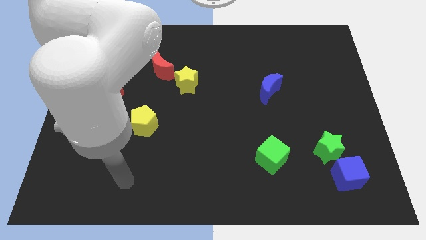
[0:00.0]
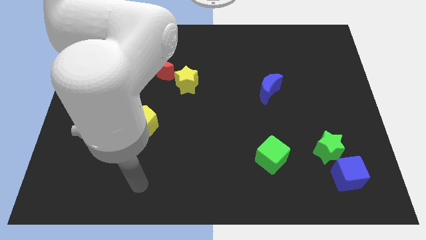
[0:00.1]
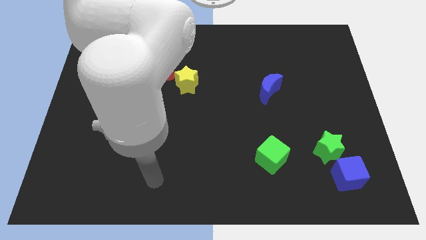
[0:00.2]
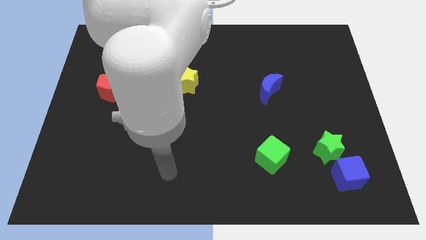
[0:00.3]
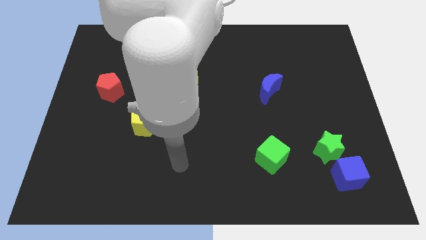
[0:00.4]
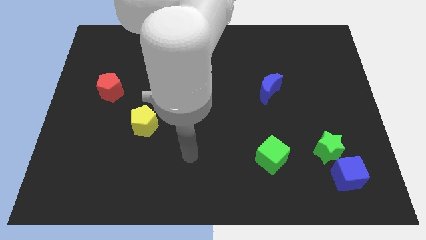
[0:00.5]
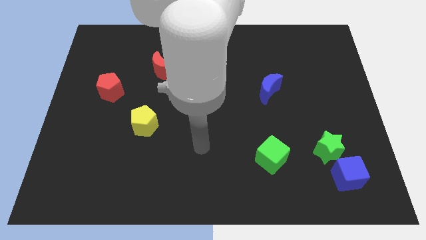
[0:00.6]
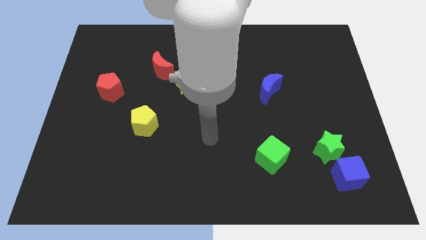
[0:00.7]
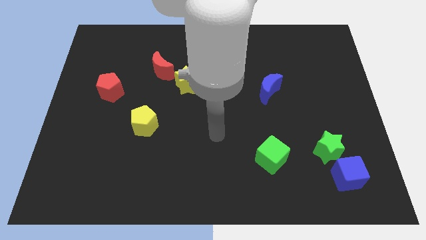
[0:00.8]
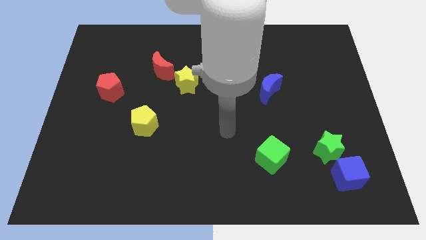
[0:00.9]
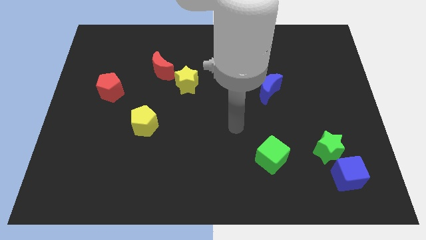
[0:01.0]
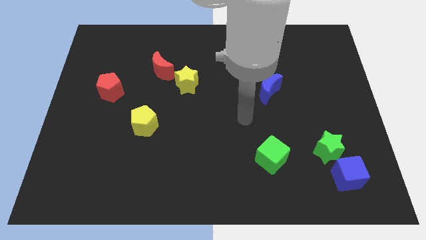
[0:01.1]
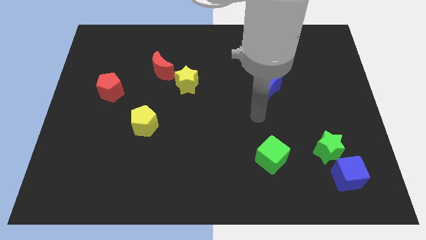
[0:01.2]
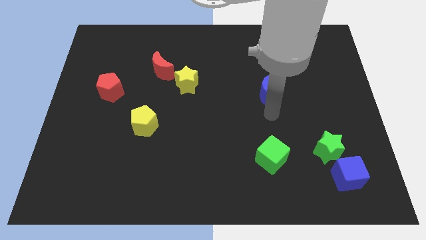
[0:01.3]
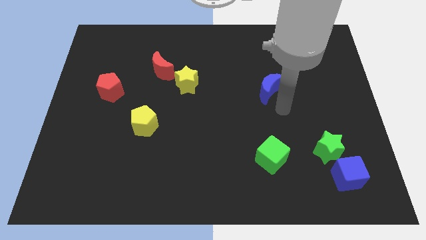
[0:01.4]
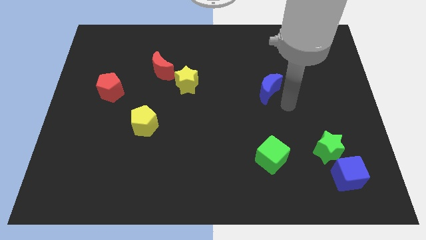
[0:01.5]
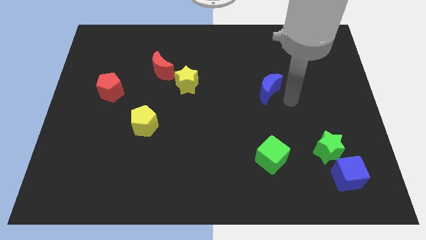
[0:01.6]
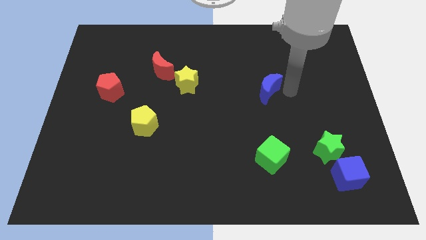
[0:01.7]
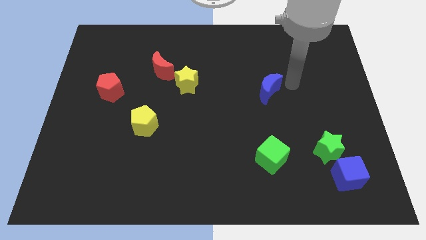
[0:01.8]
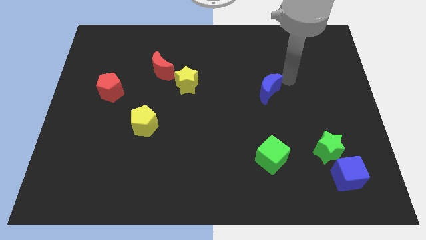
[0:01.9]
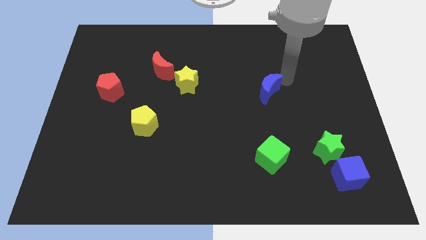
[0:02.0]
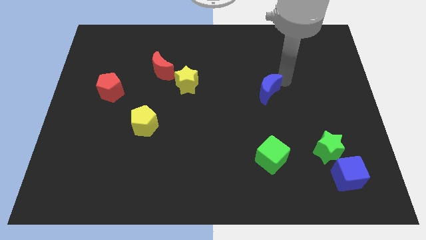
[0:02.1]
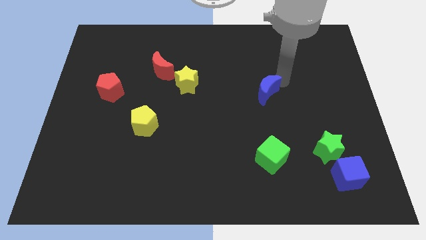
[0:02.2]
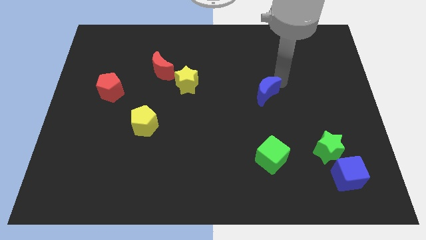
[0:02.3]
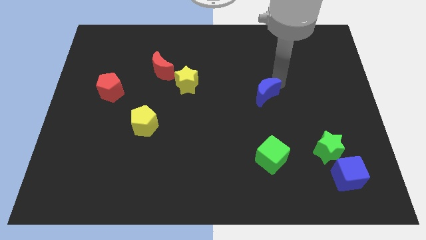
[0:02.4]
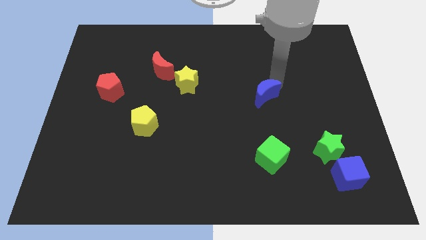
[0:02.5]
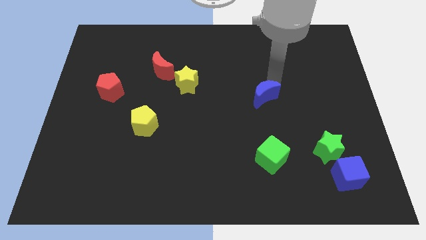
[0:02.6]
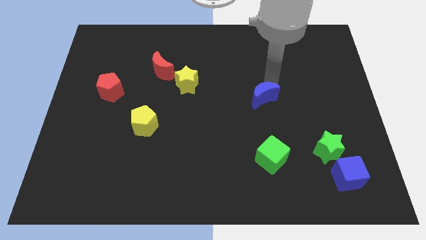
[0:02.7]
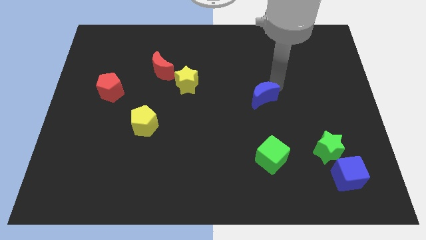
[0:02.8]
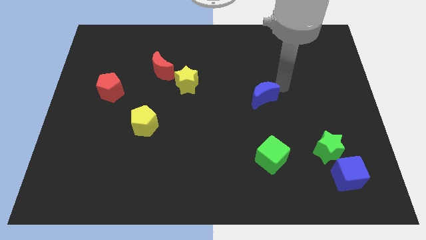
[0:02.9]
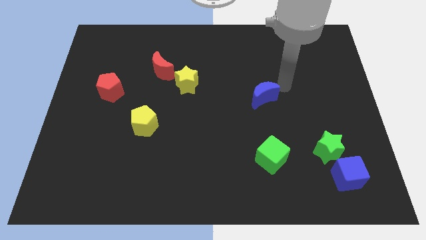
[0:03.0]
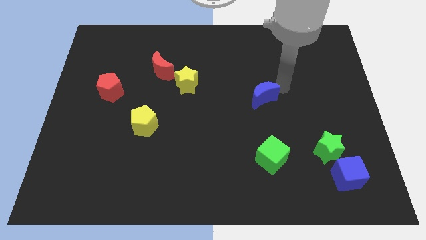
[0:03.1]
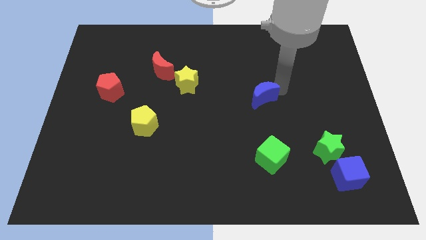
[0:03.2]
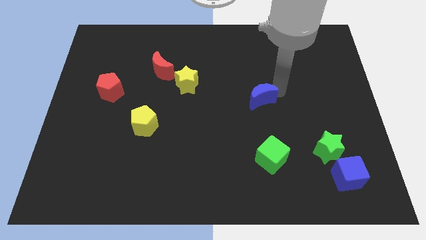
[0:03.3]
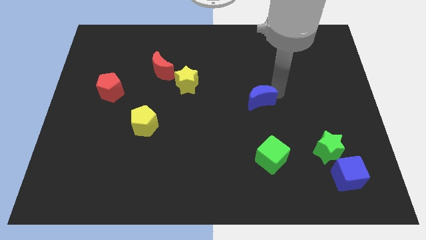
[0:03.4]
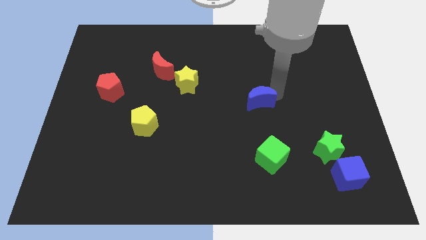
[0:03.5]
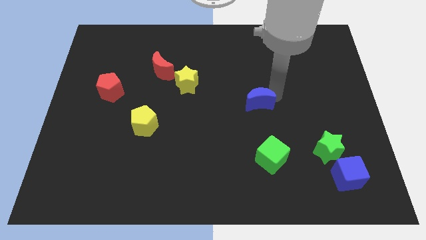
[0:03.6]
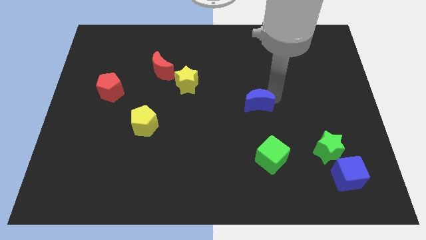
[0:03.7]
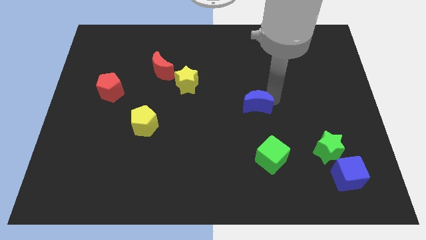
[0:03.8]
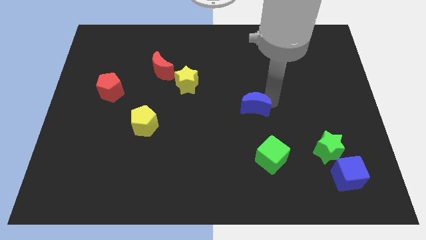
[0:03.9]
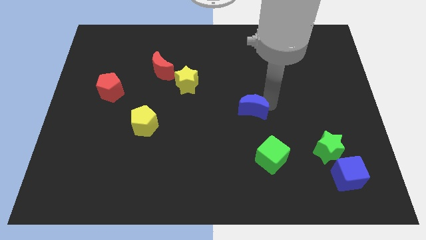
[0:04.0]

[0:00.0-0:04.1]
move the blue moon downwards and then left a bit

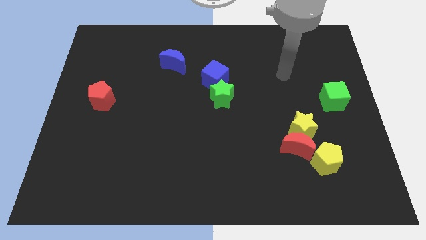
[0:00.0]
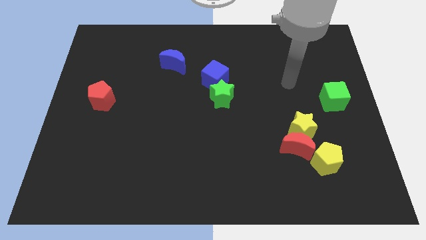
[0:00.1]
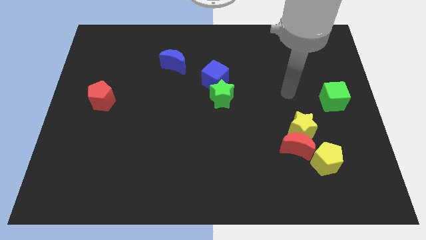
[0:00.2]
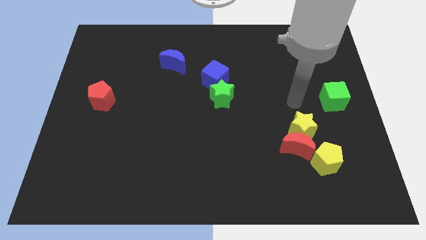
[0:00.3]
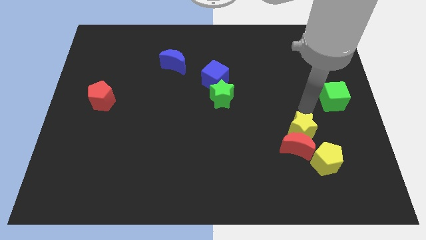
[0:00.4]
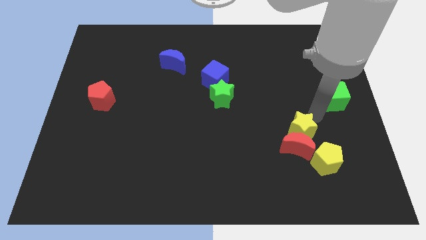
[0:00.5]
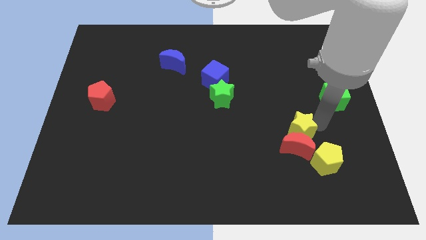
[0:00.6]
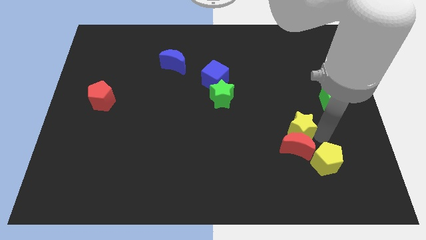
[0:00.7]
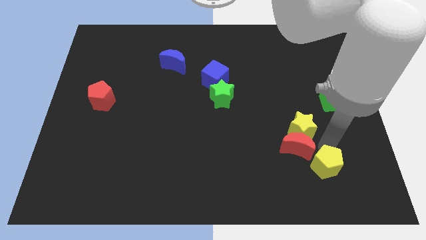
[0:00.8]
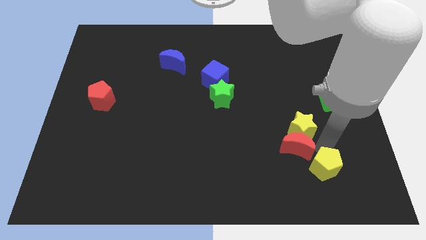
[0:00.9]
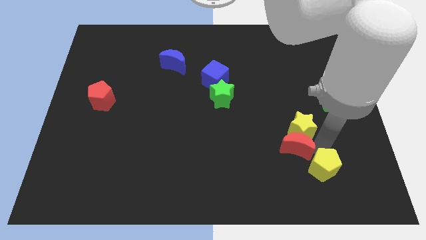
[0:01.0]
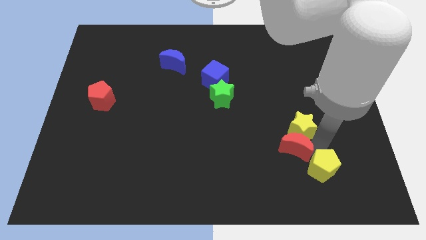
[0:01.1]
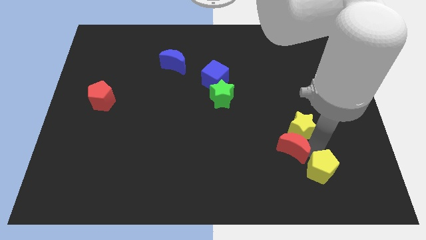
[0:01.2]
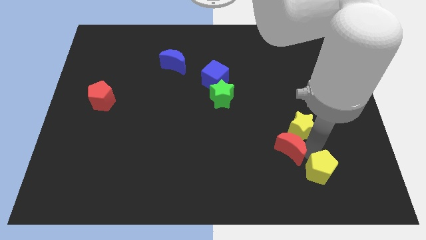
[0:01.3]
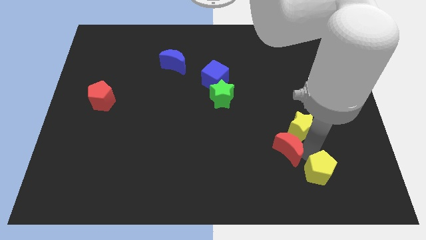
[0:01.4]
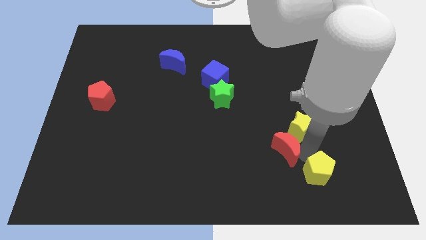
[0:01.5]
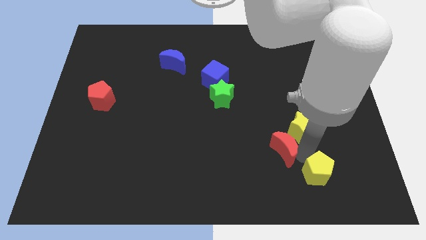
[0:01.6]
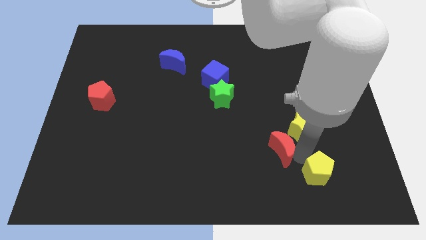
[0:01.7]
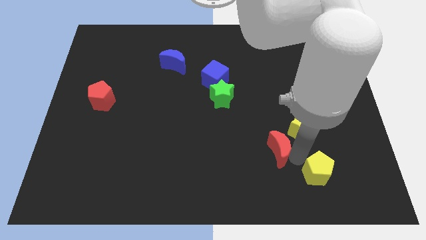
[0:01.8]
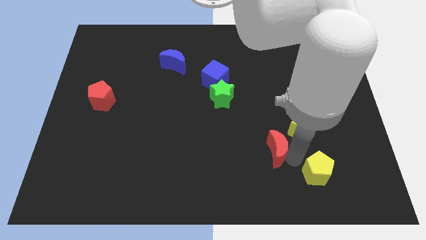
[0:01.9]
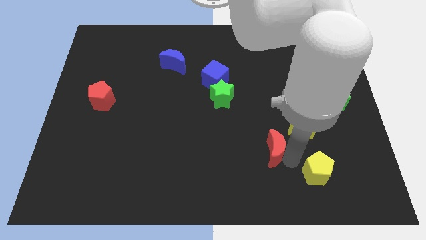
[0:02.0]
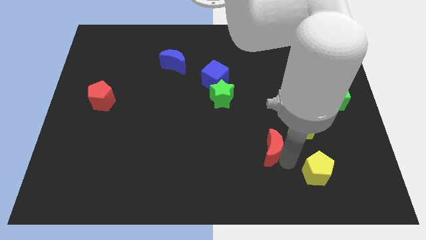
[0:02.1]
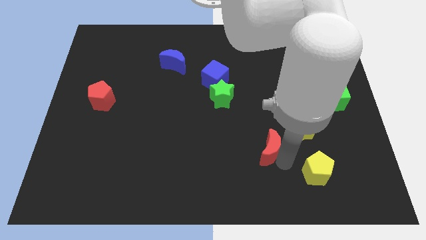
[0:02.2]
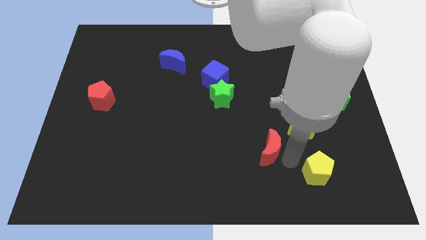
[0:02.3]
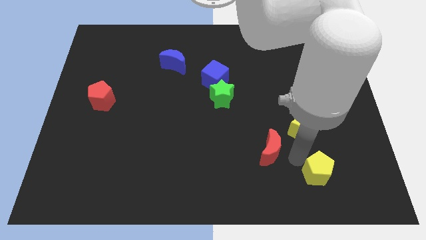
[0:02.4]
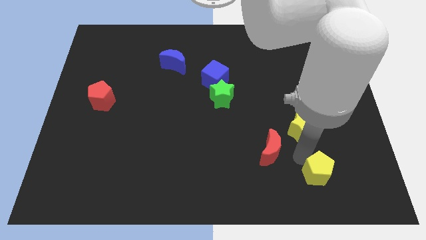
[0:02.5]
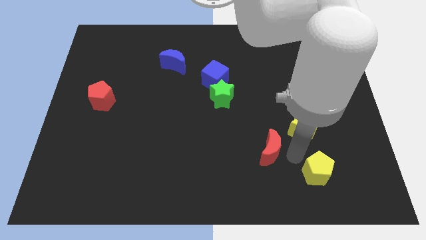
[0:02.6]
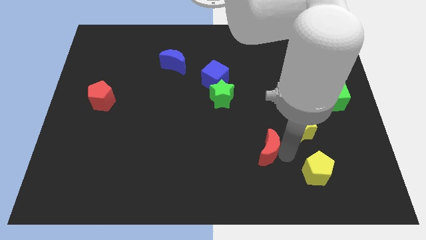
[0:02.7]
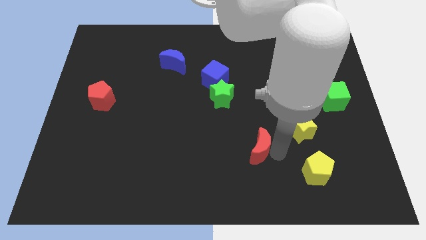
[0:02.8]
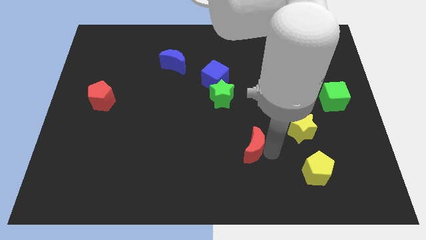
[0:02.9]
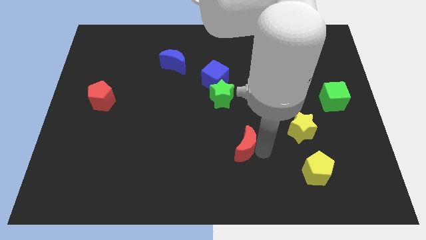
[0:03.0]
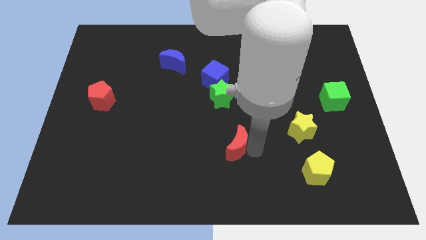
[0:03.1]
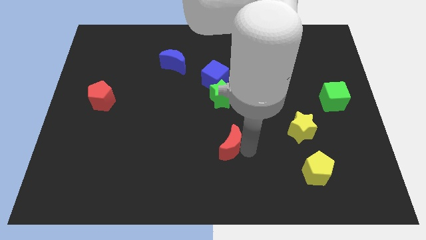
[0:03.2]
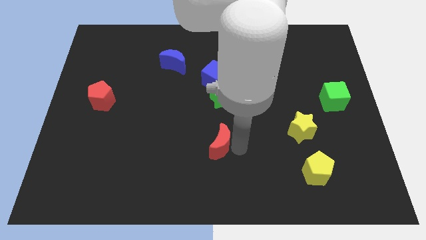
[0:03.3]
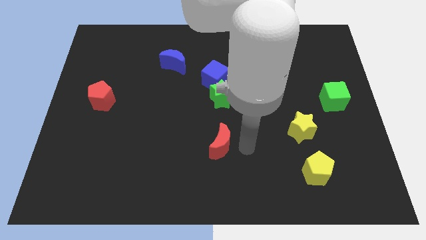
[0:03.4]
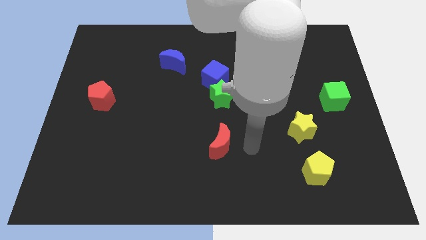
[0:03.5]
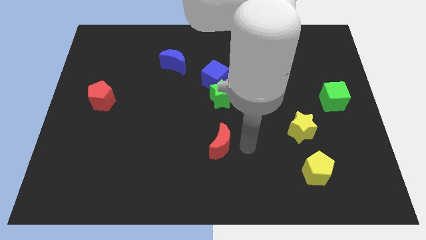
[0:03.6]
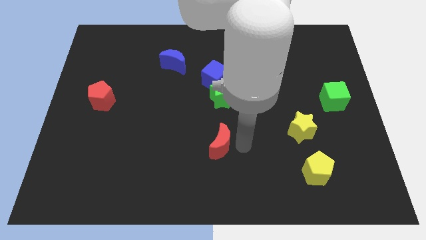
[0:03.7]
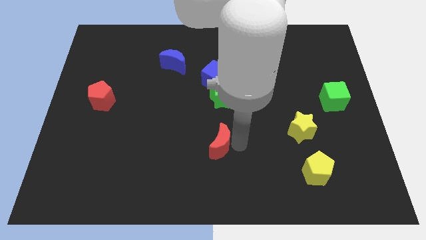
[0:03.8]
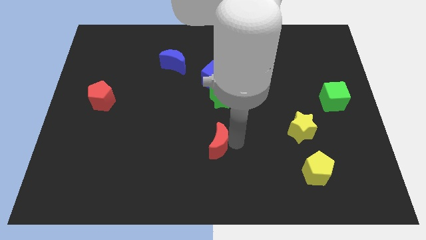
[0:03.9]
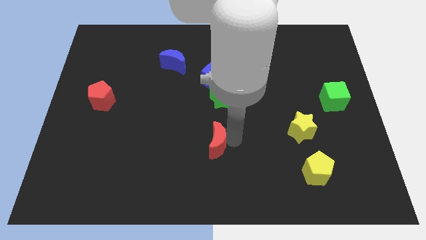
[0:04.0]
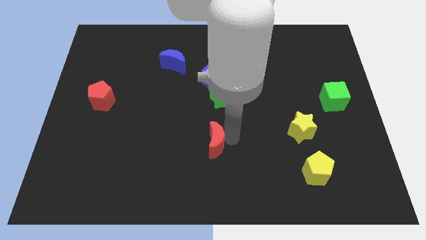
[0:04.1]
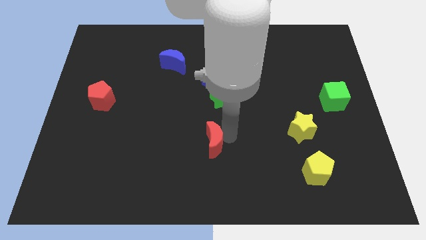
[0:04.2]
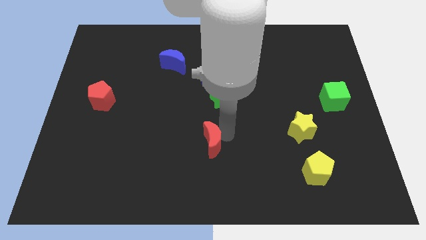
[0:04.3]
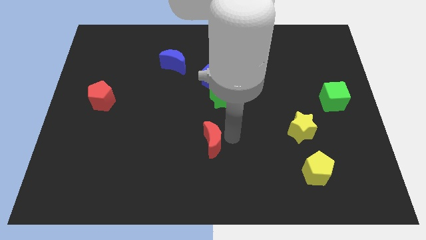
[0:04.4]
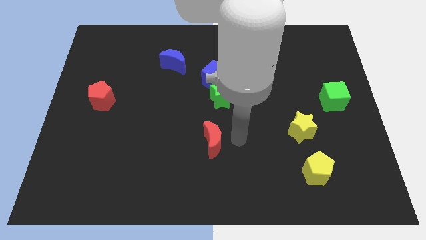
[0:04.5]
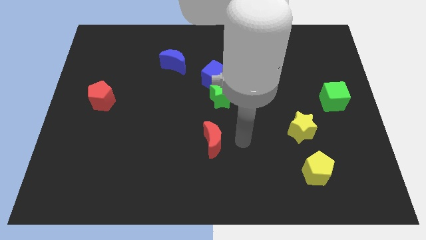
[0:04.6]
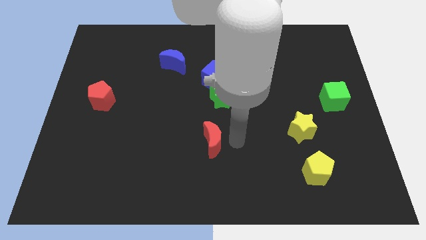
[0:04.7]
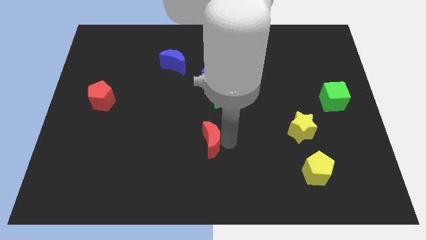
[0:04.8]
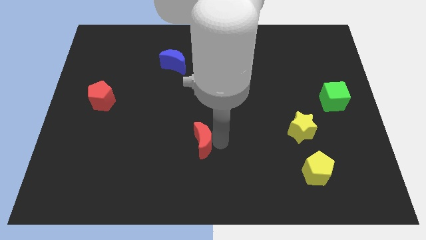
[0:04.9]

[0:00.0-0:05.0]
move the red moon left
